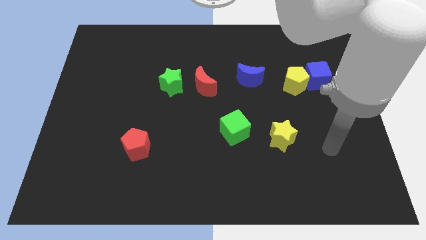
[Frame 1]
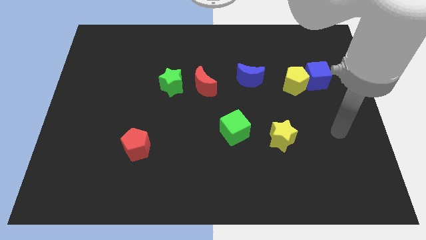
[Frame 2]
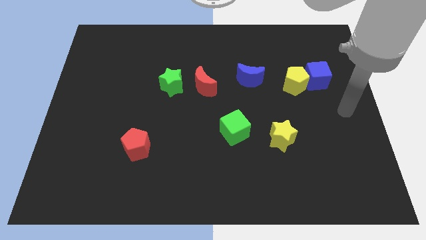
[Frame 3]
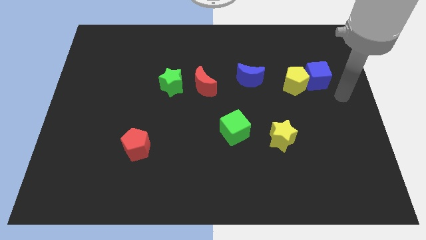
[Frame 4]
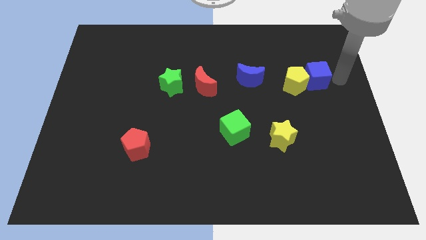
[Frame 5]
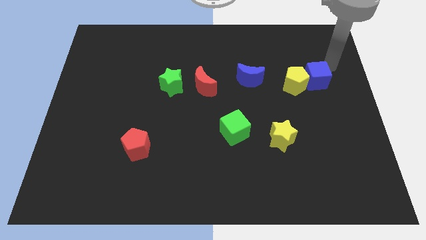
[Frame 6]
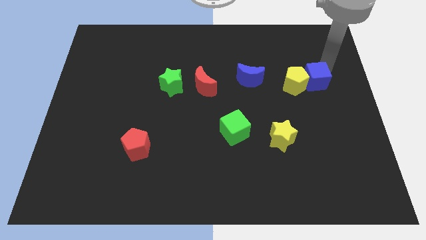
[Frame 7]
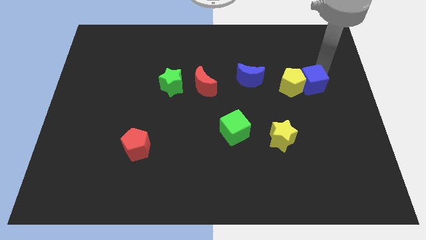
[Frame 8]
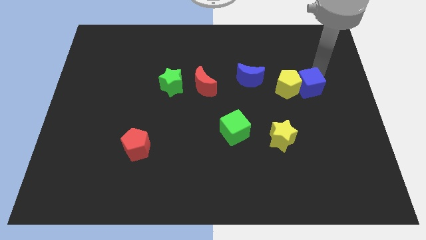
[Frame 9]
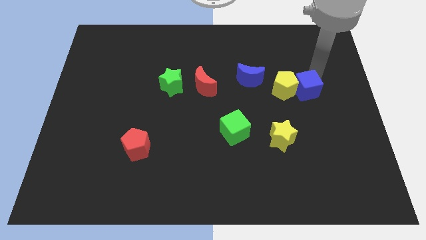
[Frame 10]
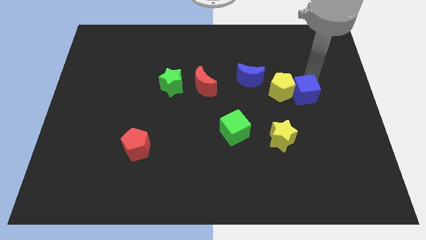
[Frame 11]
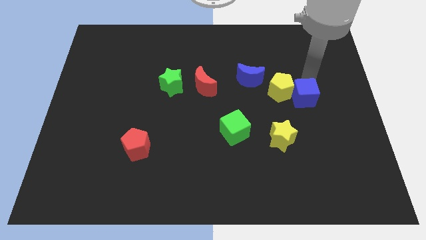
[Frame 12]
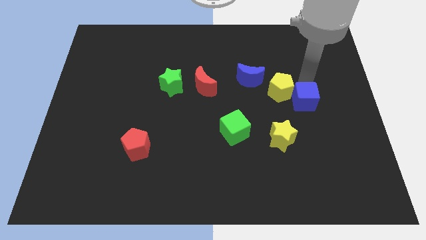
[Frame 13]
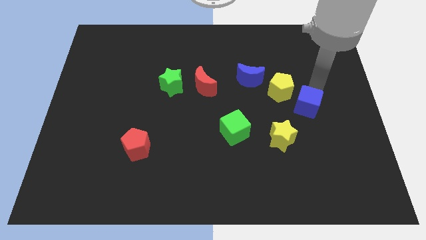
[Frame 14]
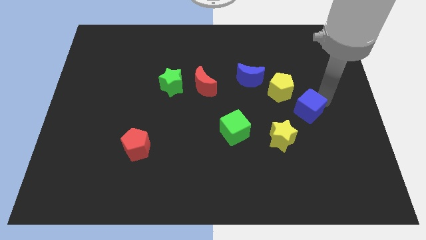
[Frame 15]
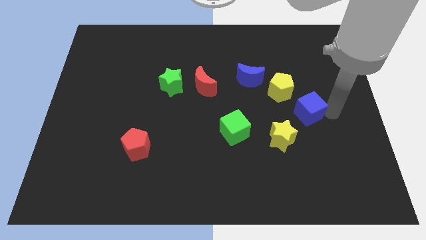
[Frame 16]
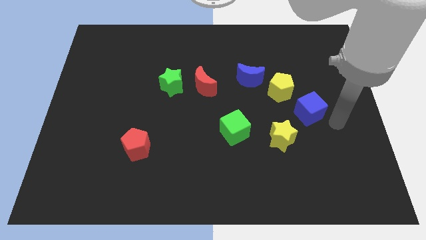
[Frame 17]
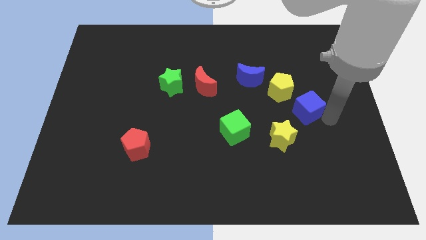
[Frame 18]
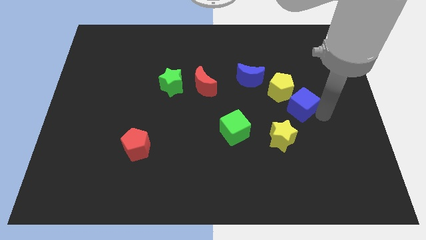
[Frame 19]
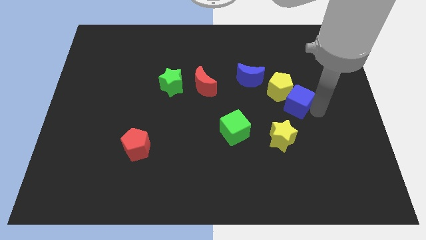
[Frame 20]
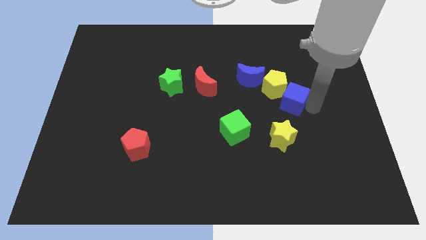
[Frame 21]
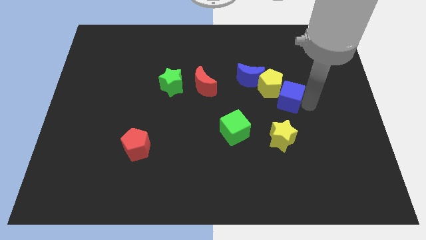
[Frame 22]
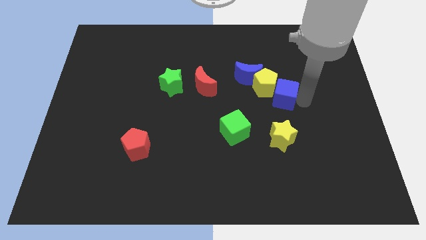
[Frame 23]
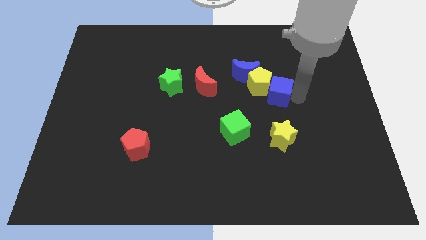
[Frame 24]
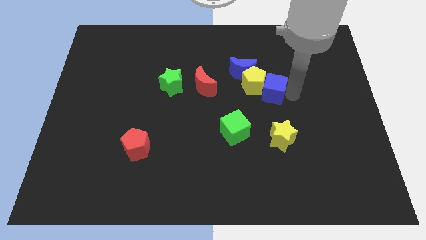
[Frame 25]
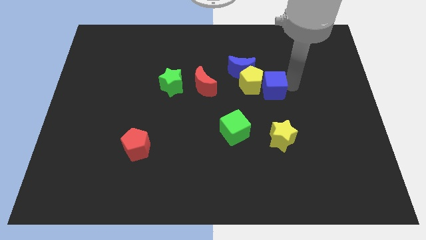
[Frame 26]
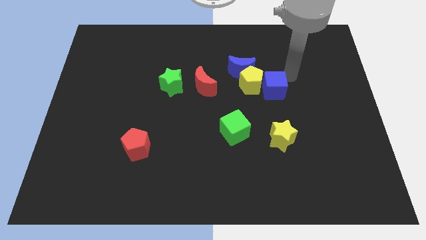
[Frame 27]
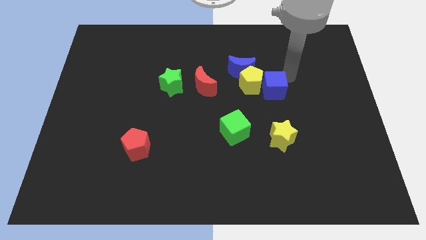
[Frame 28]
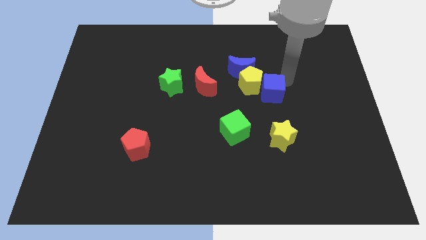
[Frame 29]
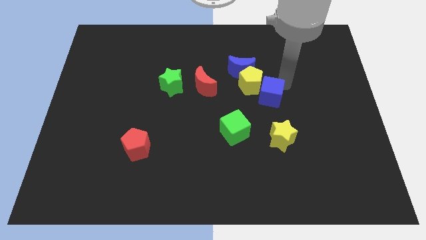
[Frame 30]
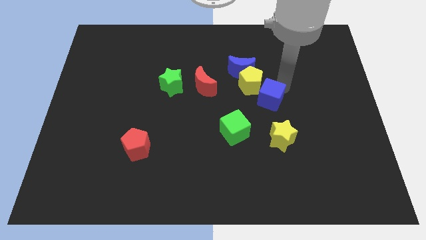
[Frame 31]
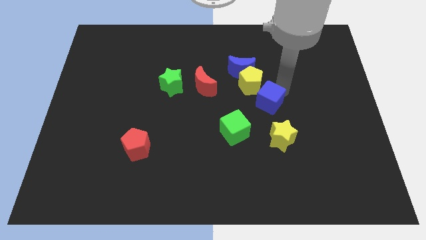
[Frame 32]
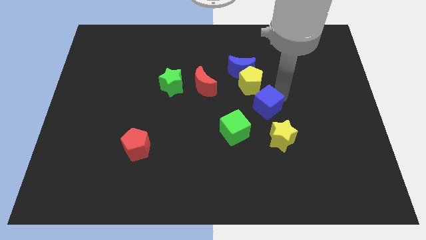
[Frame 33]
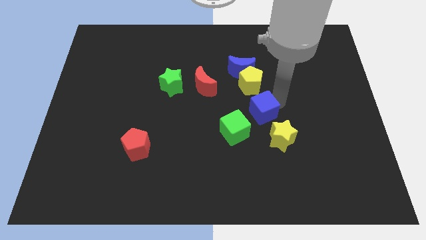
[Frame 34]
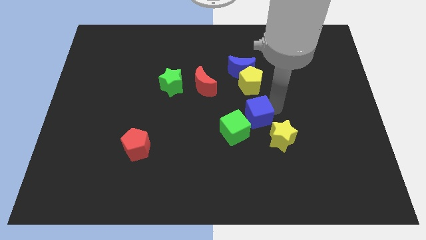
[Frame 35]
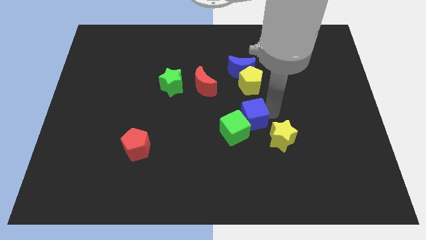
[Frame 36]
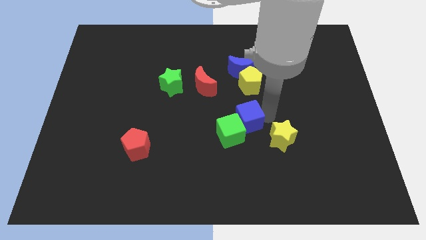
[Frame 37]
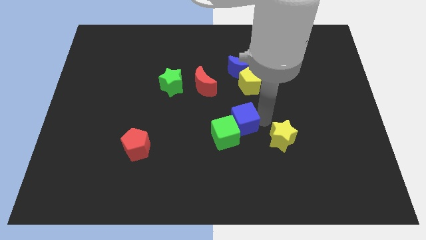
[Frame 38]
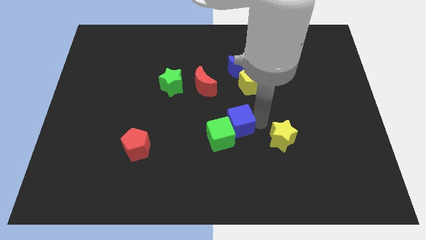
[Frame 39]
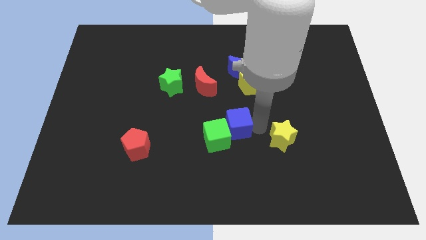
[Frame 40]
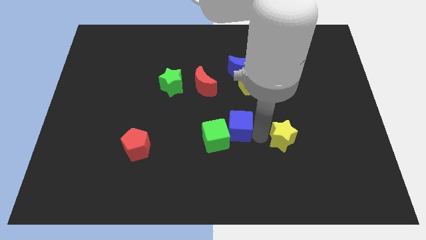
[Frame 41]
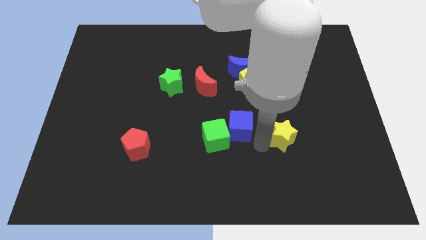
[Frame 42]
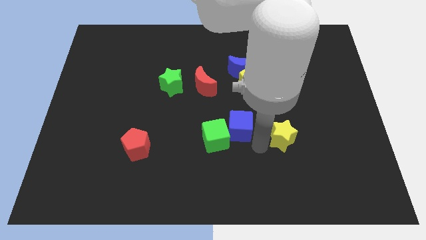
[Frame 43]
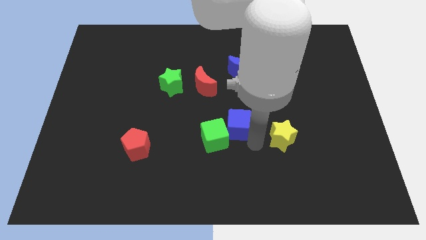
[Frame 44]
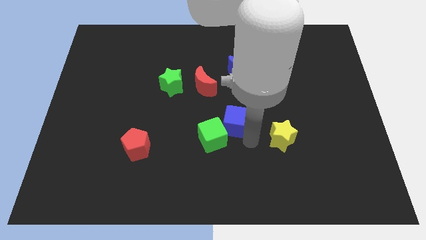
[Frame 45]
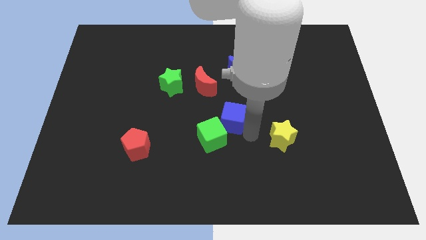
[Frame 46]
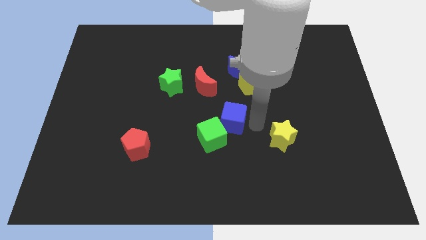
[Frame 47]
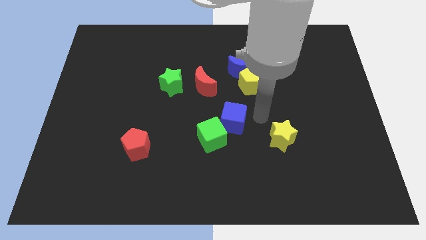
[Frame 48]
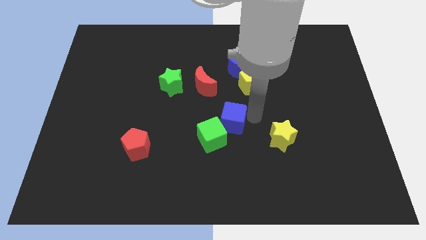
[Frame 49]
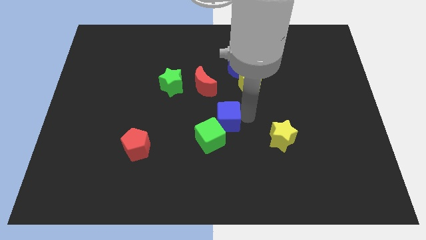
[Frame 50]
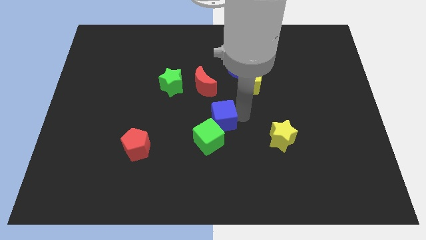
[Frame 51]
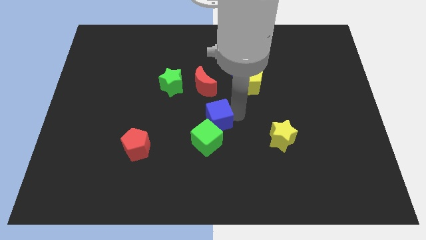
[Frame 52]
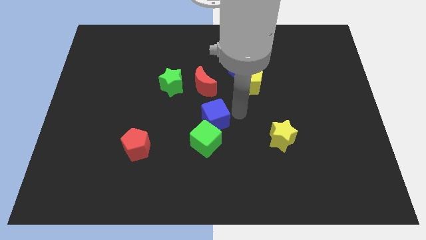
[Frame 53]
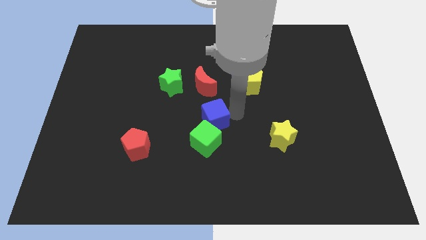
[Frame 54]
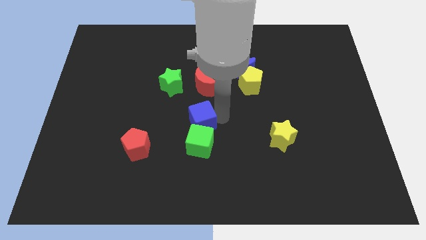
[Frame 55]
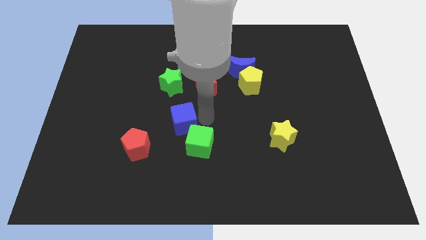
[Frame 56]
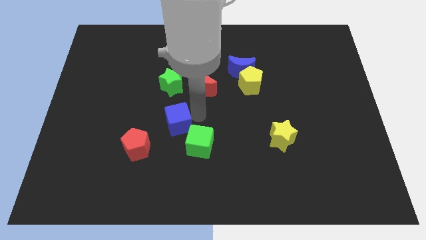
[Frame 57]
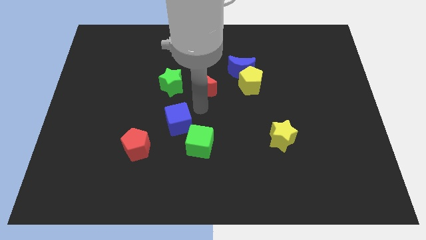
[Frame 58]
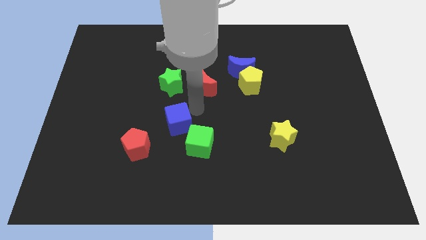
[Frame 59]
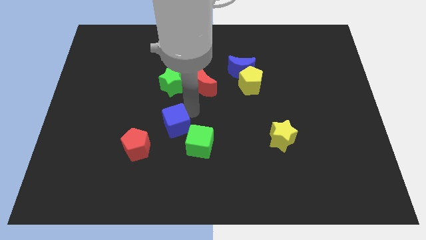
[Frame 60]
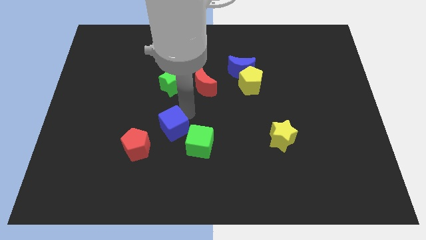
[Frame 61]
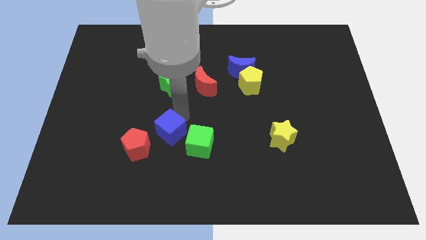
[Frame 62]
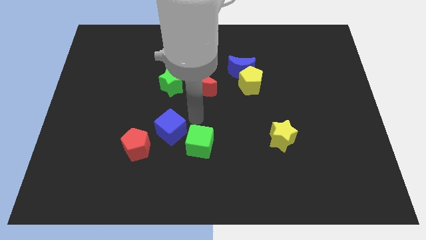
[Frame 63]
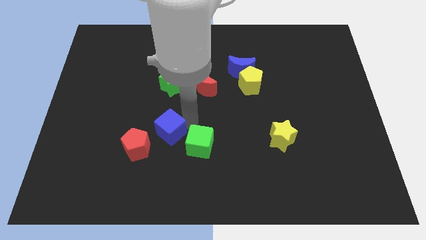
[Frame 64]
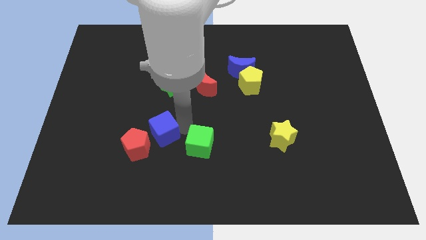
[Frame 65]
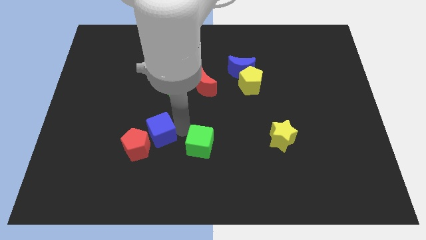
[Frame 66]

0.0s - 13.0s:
slide the blue cube next to the red pentagon
